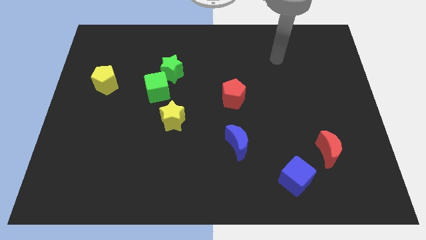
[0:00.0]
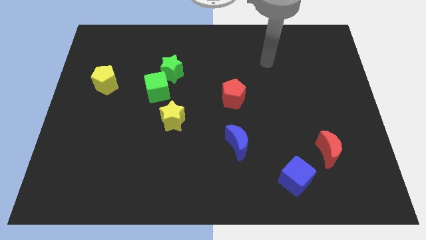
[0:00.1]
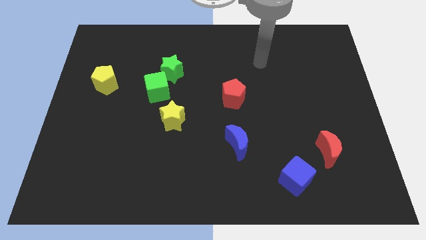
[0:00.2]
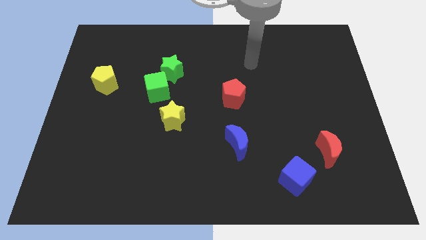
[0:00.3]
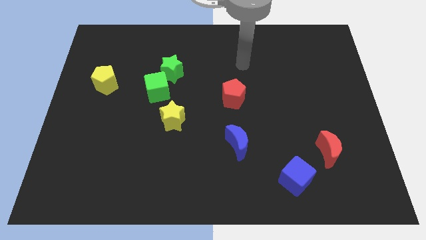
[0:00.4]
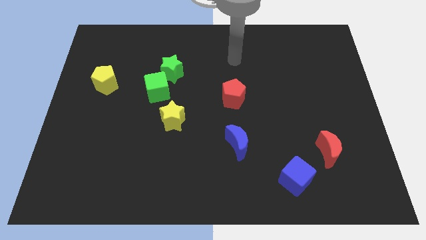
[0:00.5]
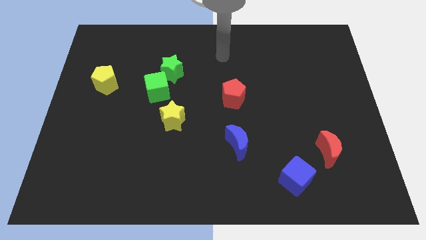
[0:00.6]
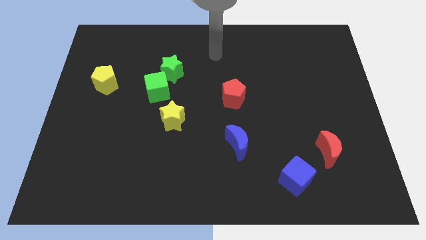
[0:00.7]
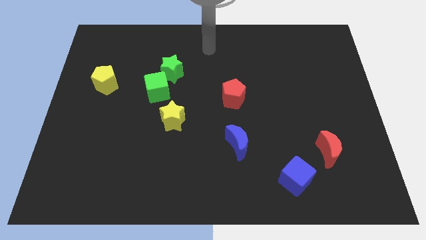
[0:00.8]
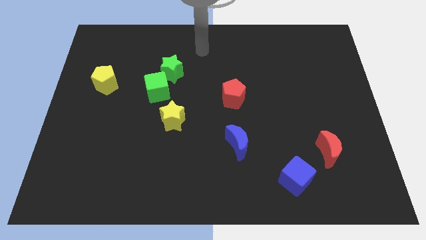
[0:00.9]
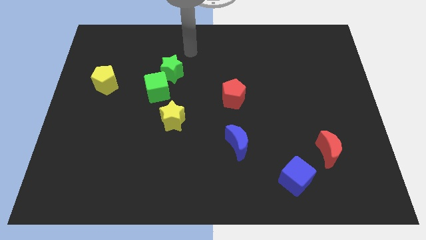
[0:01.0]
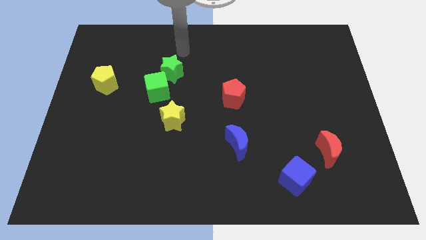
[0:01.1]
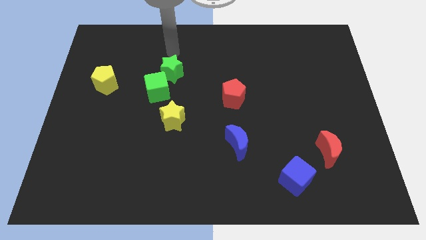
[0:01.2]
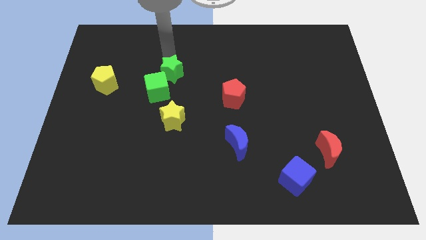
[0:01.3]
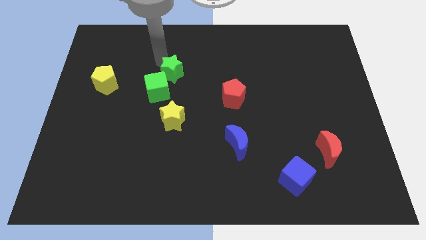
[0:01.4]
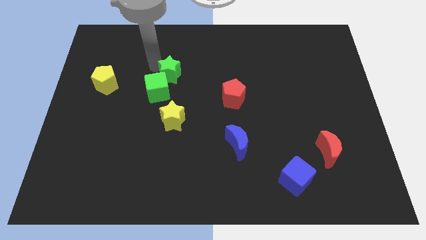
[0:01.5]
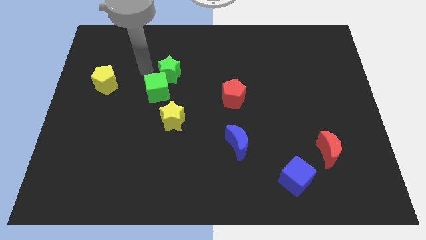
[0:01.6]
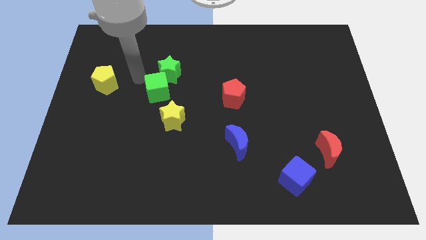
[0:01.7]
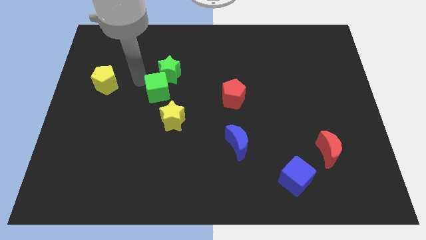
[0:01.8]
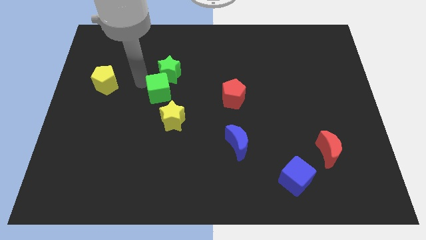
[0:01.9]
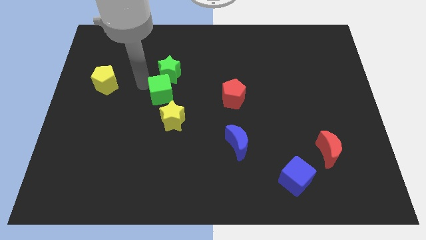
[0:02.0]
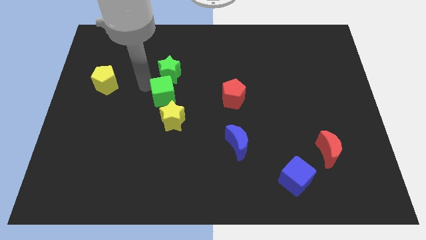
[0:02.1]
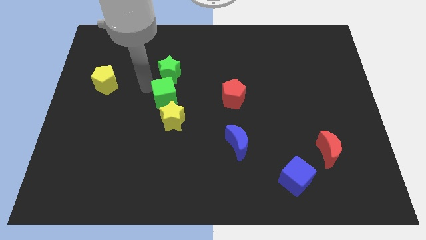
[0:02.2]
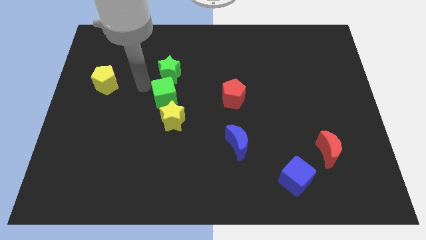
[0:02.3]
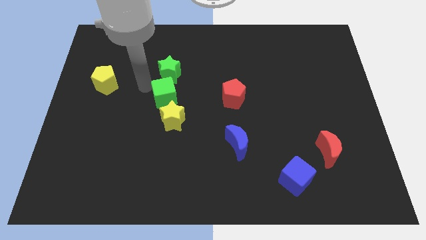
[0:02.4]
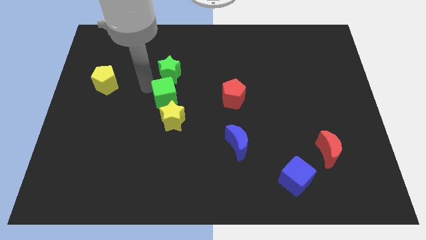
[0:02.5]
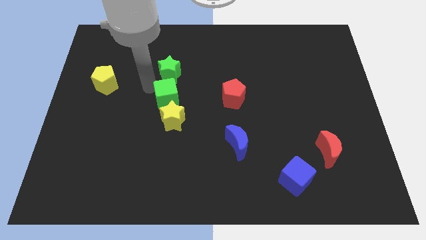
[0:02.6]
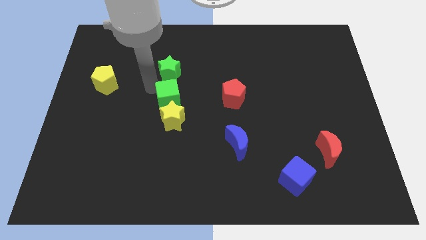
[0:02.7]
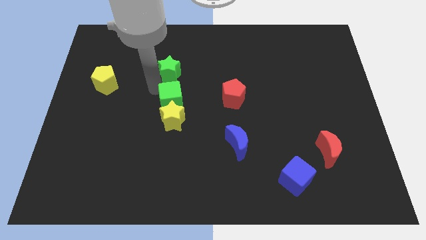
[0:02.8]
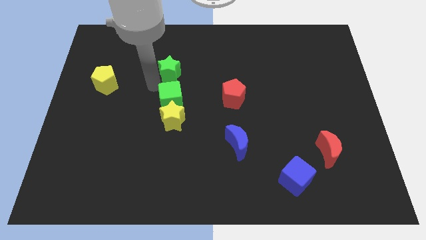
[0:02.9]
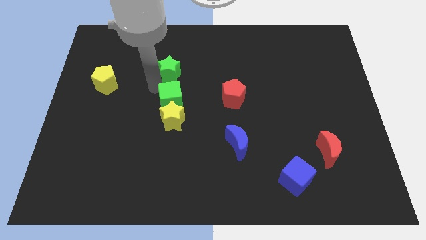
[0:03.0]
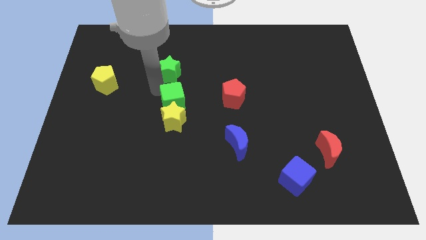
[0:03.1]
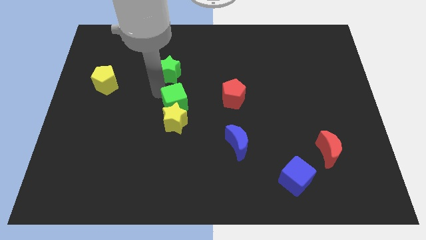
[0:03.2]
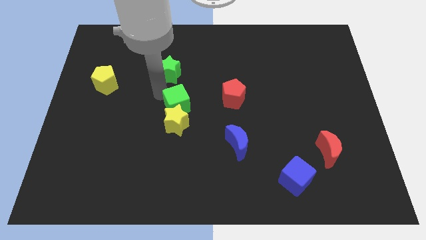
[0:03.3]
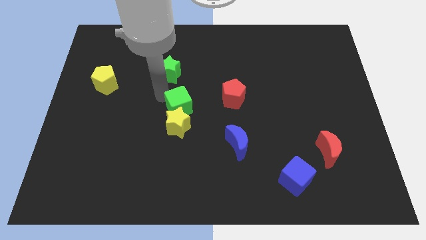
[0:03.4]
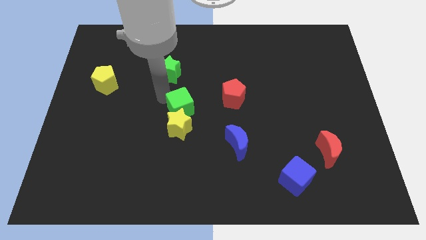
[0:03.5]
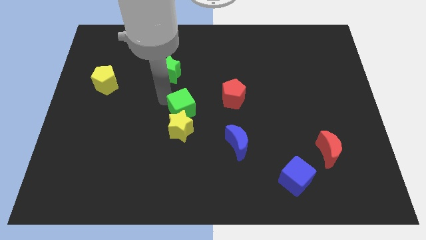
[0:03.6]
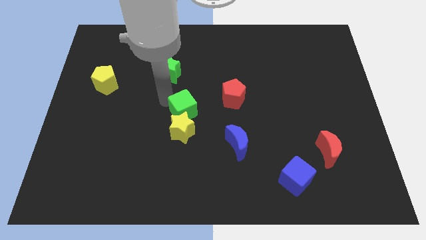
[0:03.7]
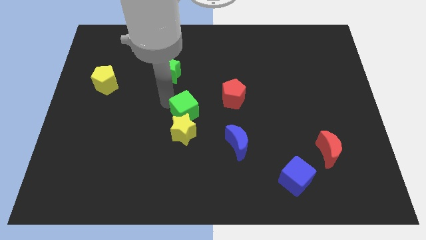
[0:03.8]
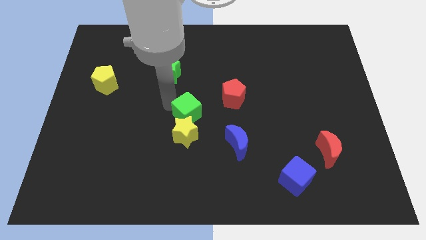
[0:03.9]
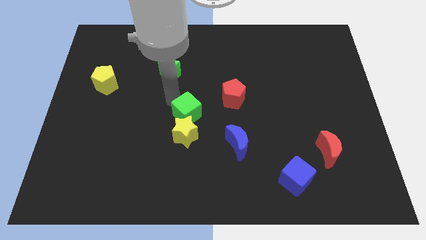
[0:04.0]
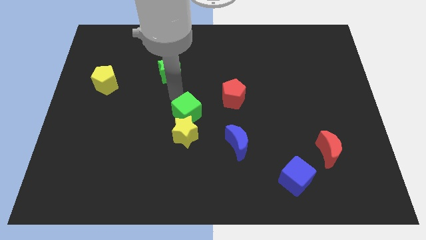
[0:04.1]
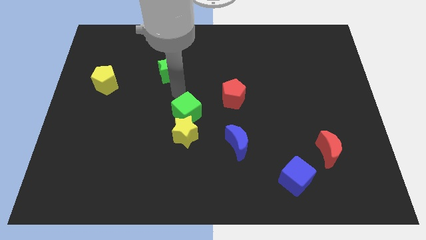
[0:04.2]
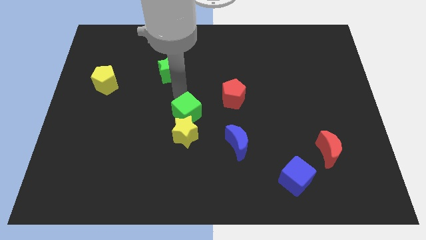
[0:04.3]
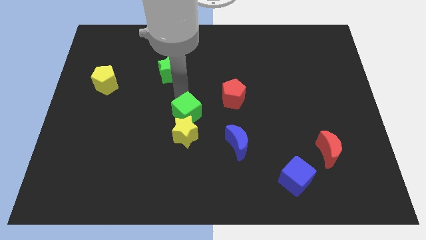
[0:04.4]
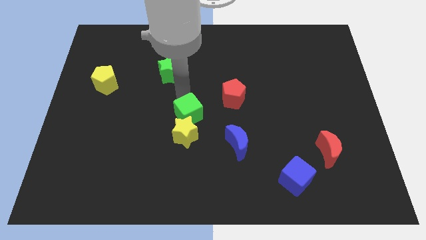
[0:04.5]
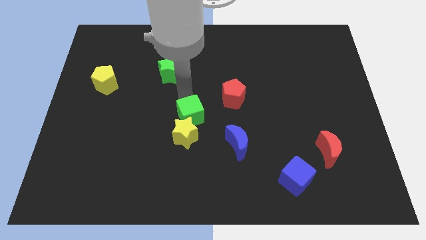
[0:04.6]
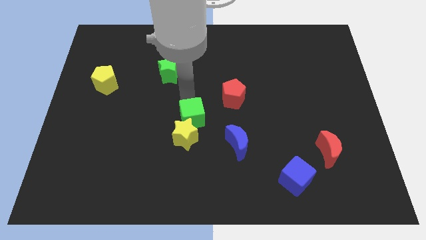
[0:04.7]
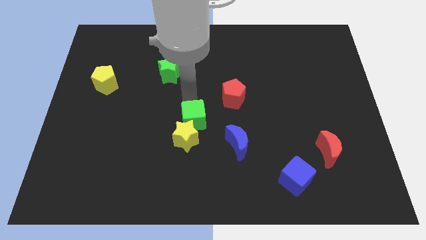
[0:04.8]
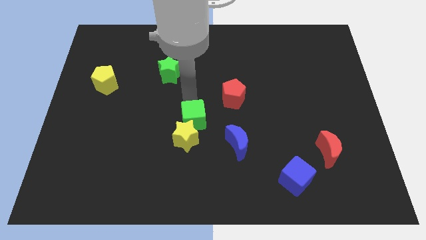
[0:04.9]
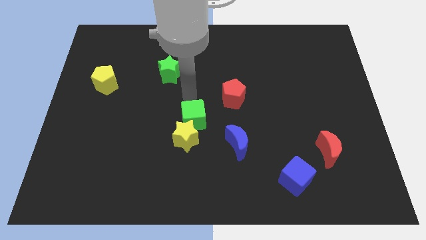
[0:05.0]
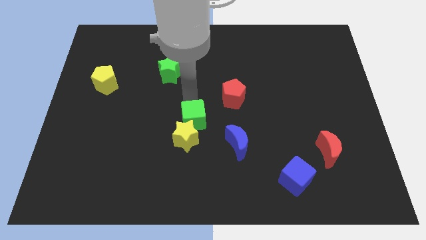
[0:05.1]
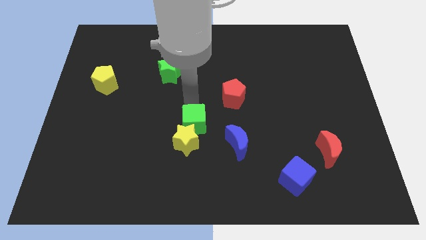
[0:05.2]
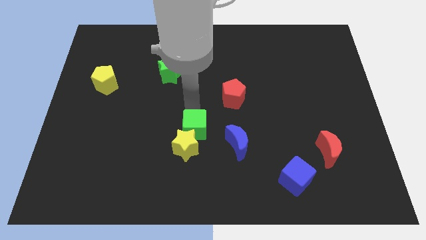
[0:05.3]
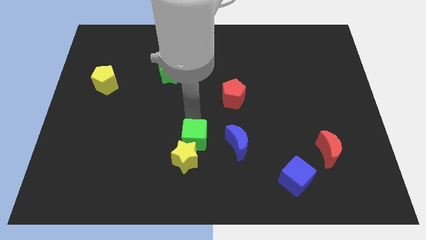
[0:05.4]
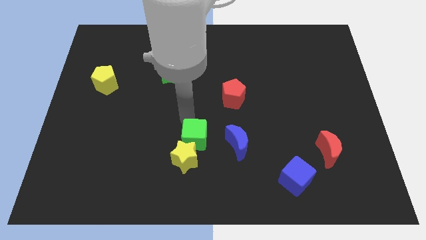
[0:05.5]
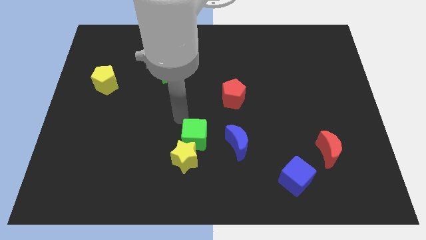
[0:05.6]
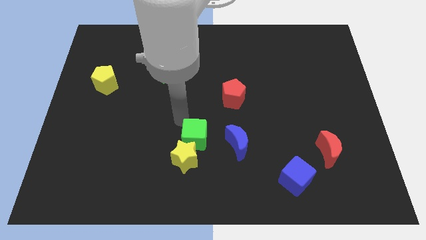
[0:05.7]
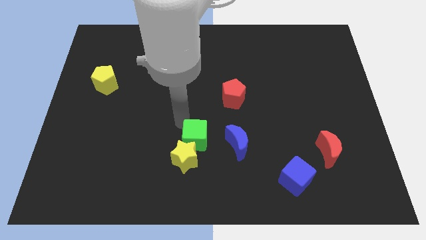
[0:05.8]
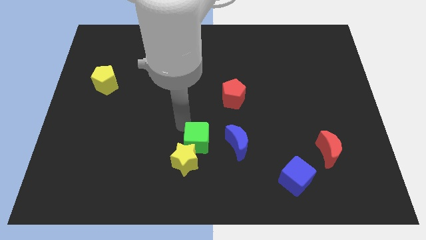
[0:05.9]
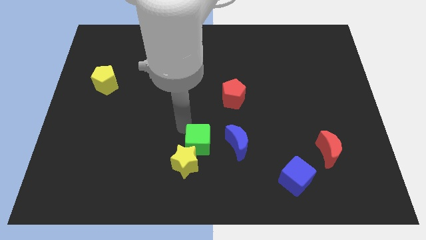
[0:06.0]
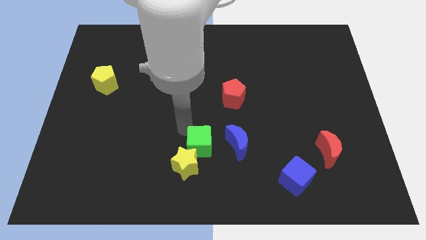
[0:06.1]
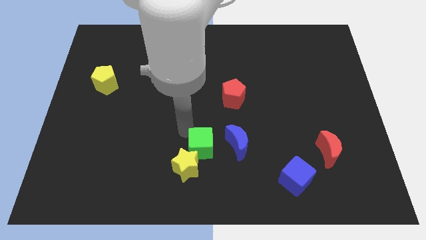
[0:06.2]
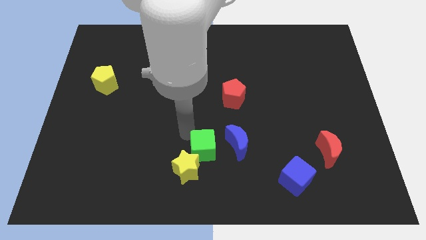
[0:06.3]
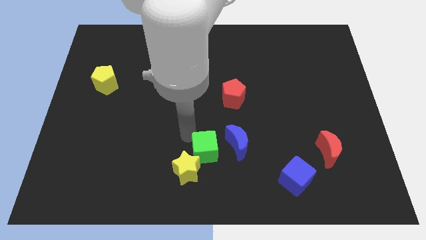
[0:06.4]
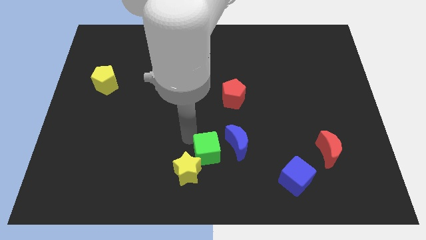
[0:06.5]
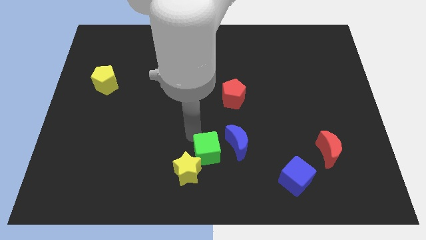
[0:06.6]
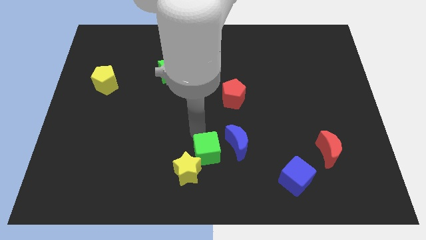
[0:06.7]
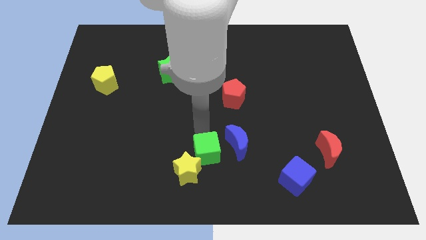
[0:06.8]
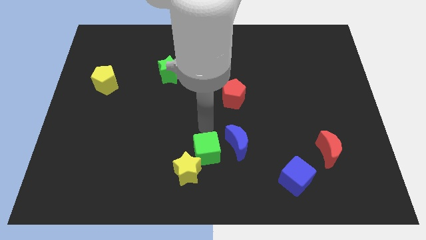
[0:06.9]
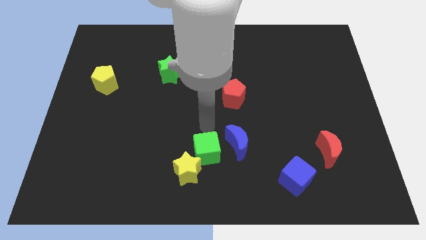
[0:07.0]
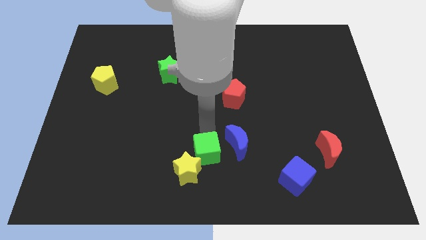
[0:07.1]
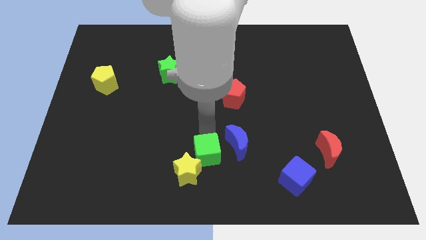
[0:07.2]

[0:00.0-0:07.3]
move the green cube to the bottom
